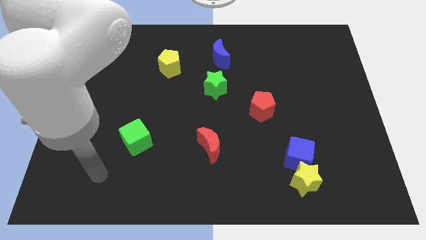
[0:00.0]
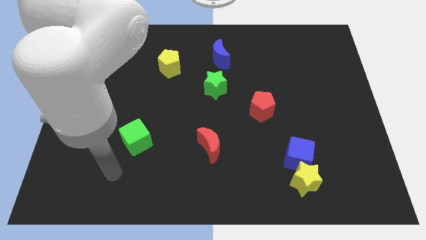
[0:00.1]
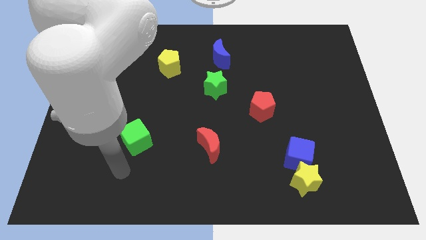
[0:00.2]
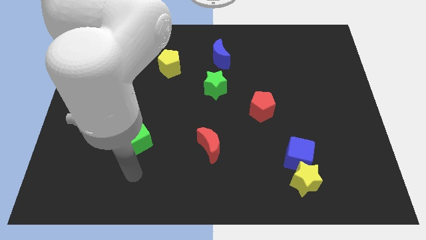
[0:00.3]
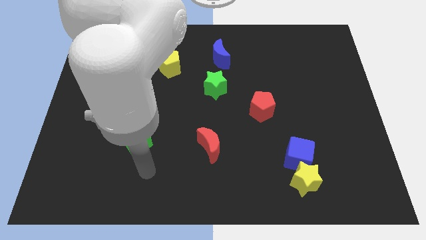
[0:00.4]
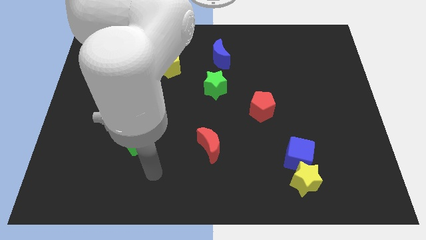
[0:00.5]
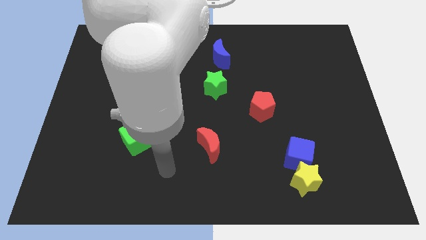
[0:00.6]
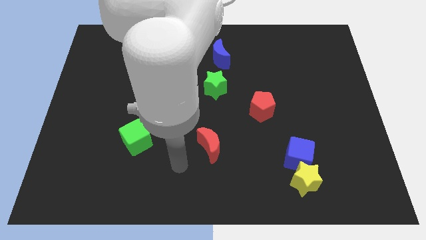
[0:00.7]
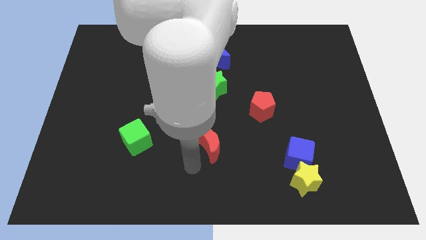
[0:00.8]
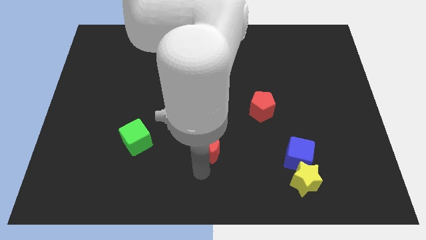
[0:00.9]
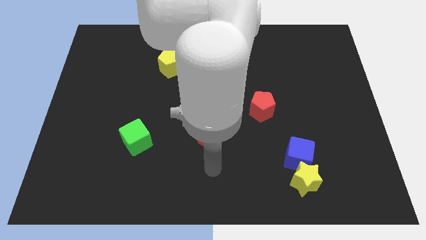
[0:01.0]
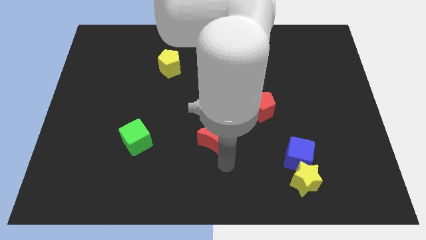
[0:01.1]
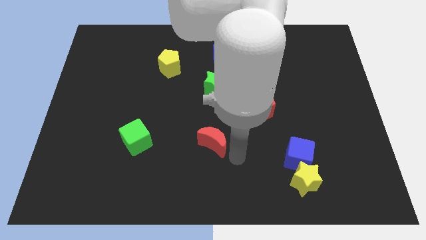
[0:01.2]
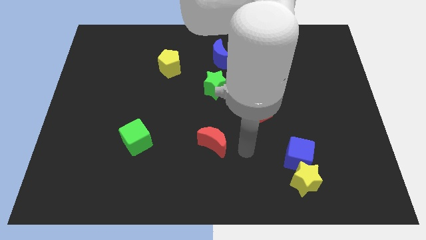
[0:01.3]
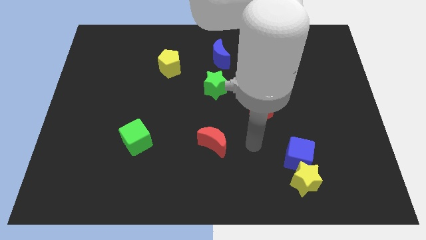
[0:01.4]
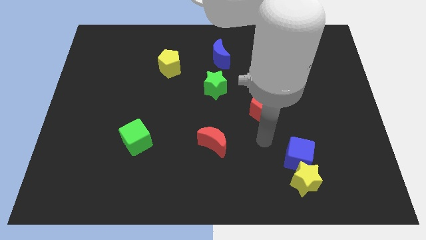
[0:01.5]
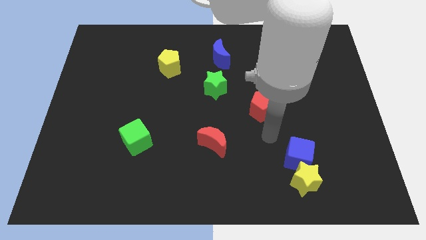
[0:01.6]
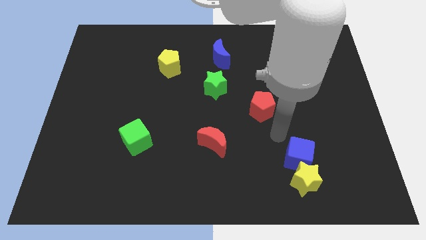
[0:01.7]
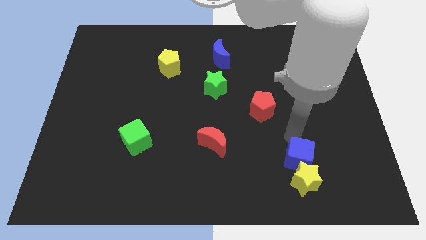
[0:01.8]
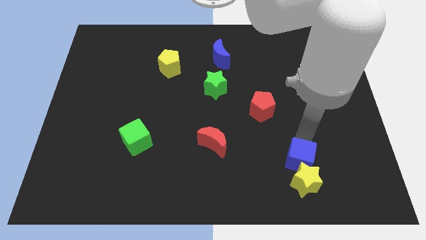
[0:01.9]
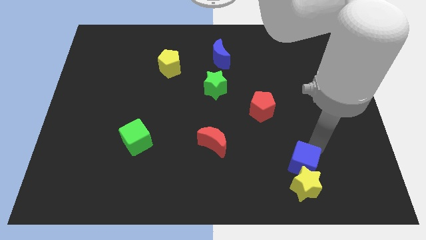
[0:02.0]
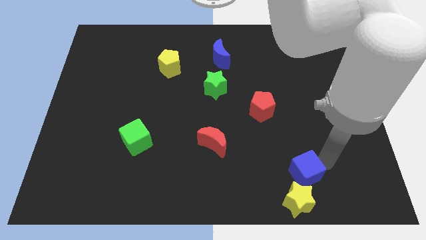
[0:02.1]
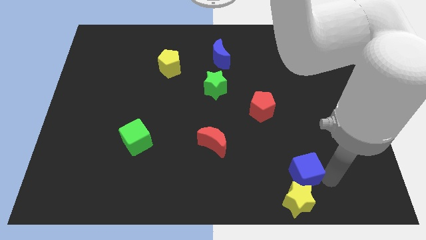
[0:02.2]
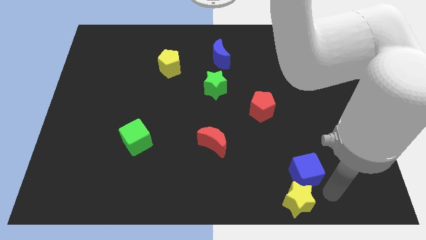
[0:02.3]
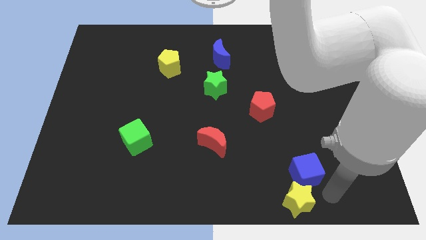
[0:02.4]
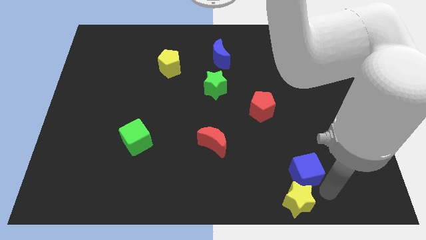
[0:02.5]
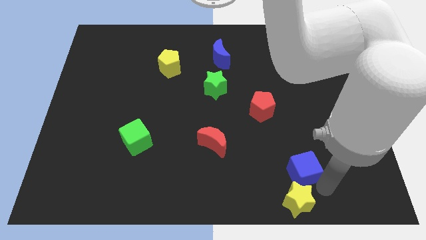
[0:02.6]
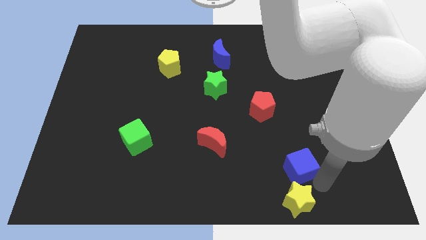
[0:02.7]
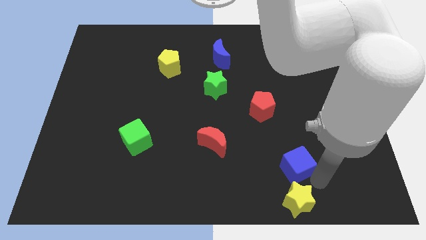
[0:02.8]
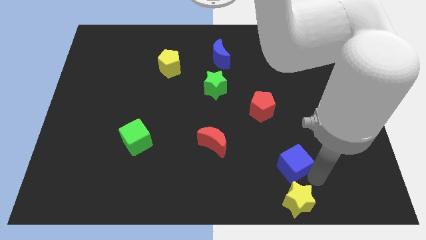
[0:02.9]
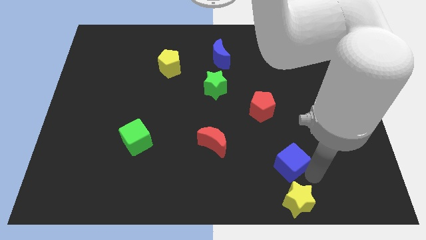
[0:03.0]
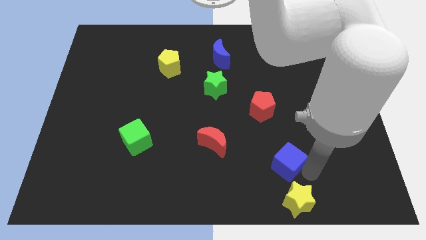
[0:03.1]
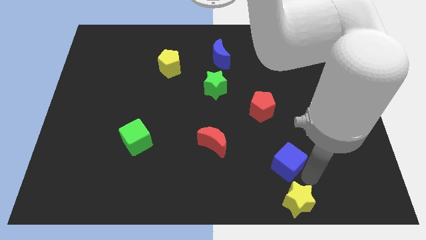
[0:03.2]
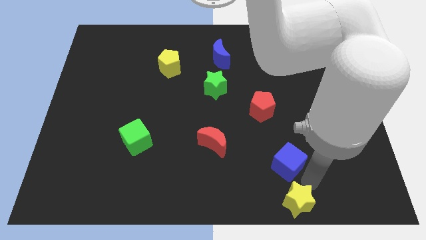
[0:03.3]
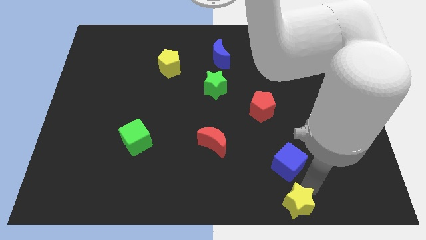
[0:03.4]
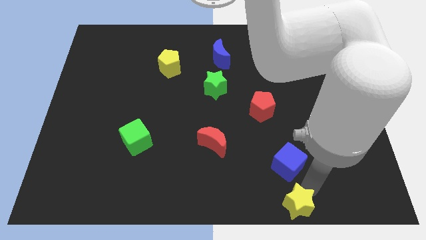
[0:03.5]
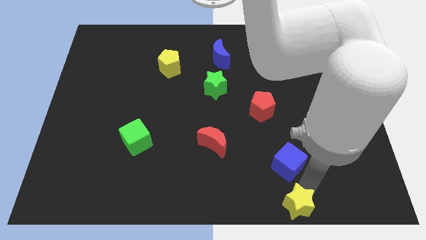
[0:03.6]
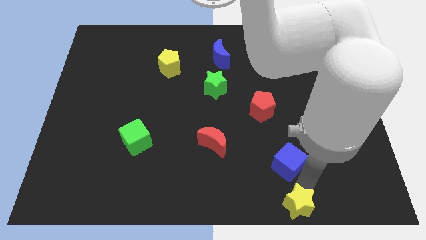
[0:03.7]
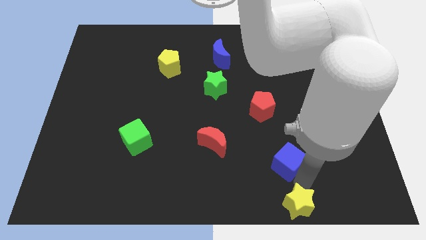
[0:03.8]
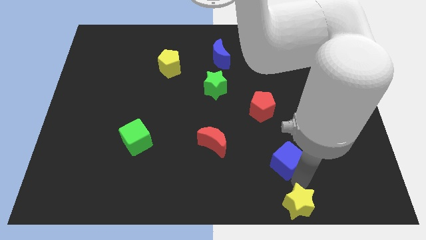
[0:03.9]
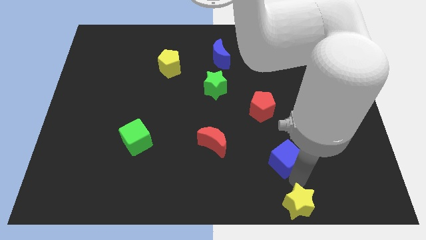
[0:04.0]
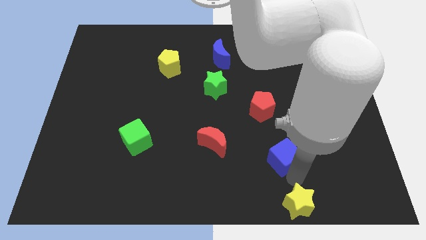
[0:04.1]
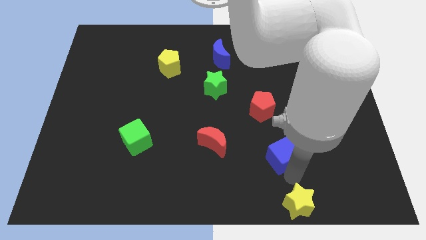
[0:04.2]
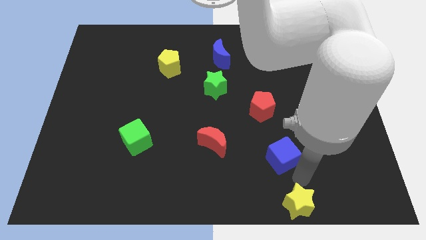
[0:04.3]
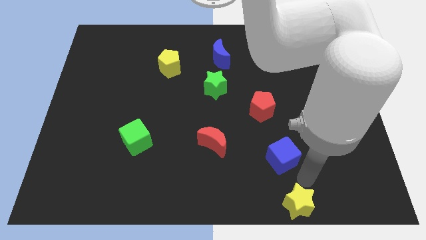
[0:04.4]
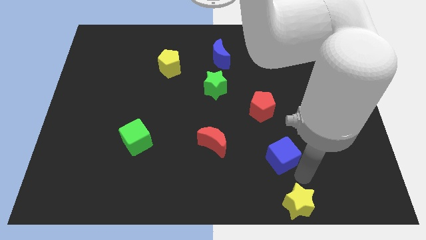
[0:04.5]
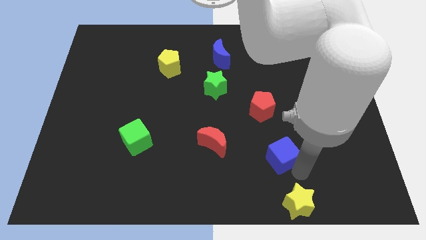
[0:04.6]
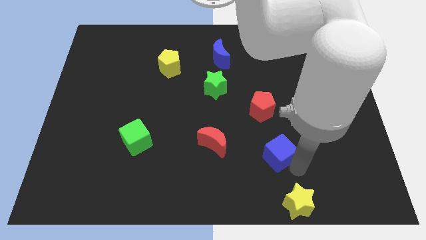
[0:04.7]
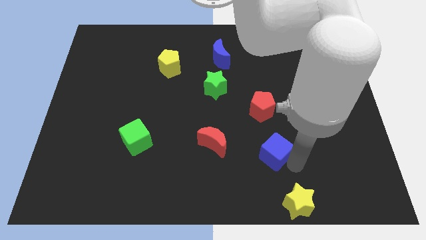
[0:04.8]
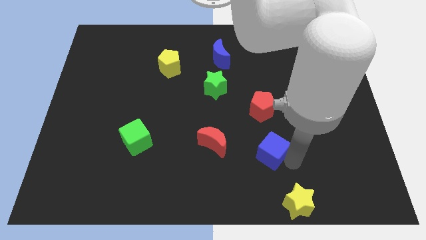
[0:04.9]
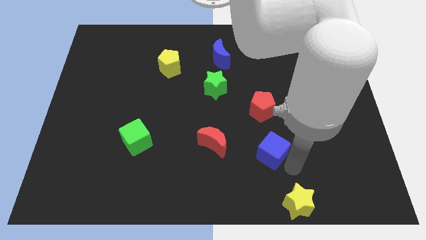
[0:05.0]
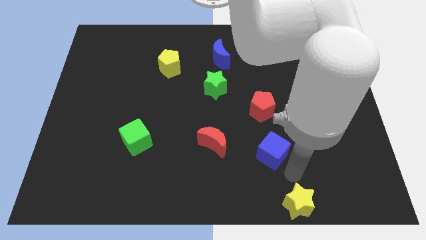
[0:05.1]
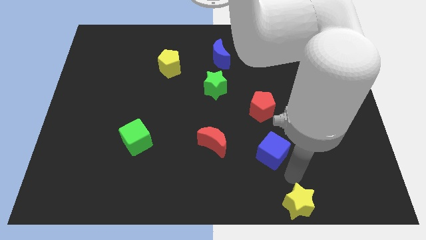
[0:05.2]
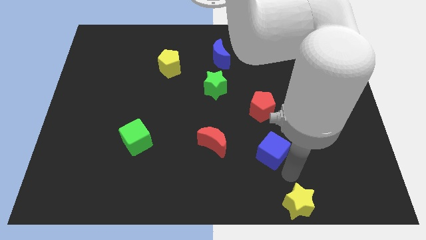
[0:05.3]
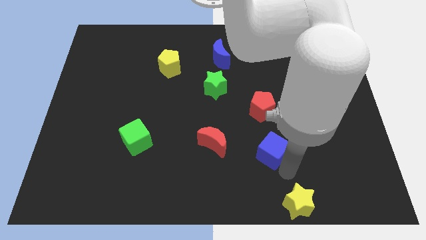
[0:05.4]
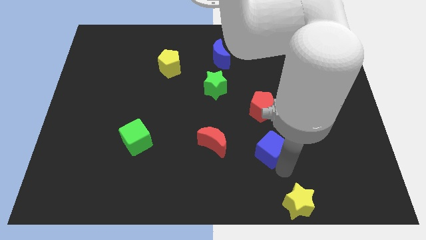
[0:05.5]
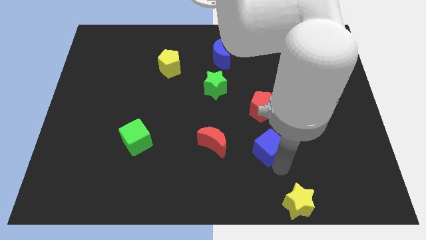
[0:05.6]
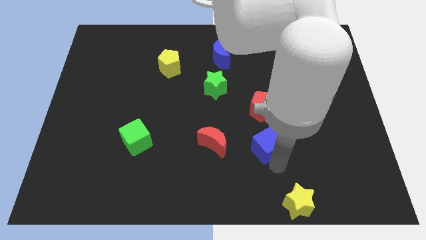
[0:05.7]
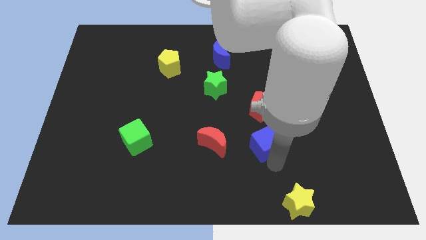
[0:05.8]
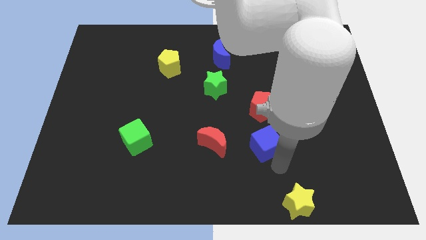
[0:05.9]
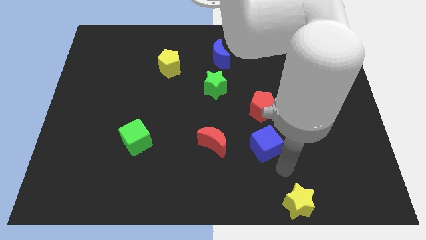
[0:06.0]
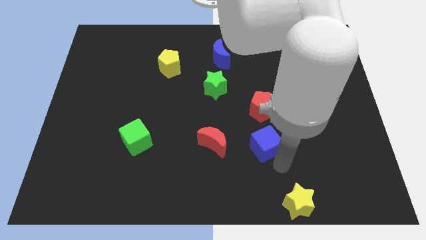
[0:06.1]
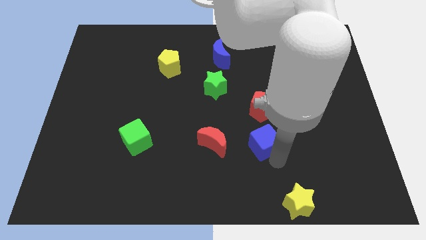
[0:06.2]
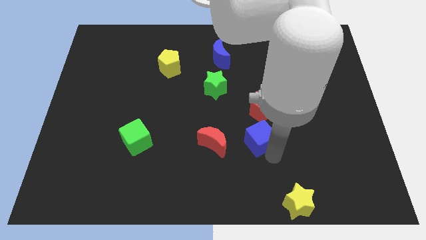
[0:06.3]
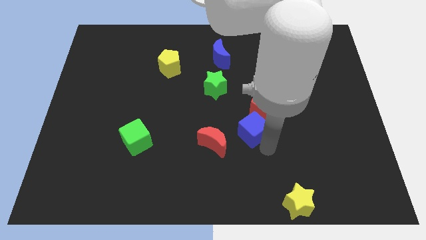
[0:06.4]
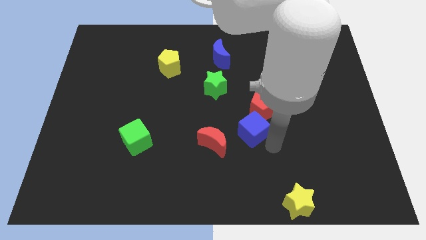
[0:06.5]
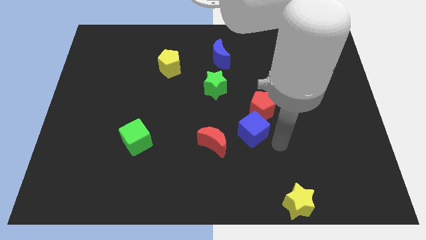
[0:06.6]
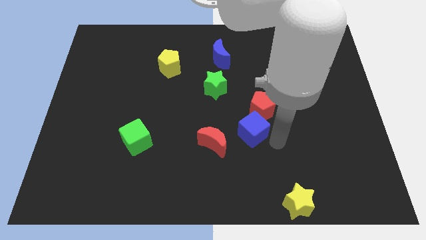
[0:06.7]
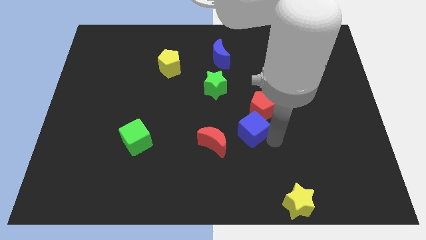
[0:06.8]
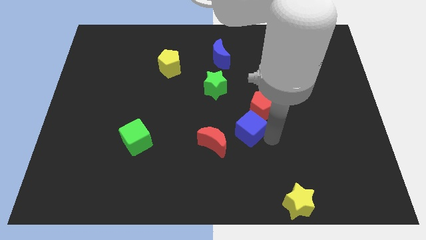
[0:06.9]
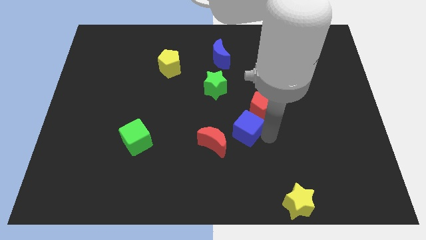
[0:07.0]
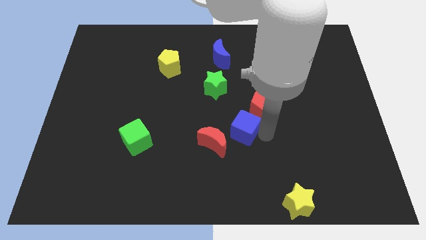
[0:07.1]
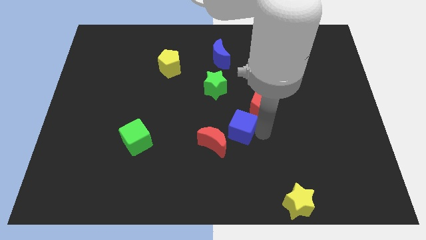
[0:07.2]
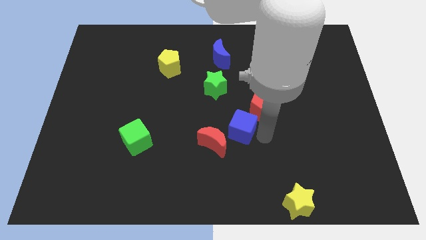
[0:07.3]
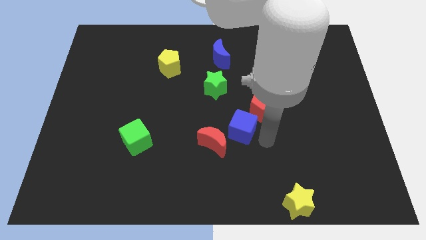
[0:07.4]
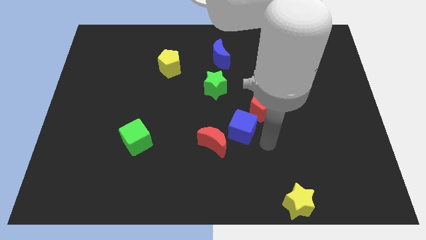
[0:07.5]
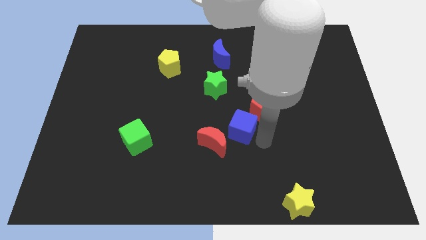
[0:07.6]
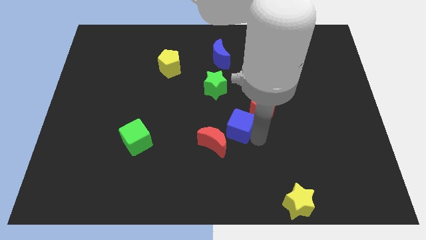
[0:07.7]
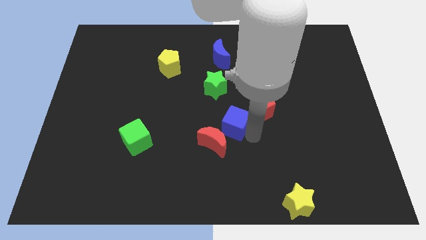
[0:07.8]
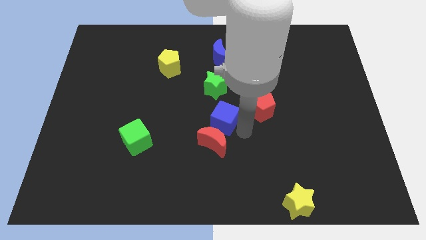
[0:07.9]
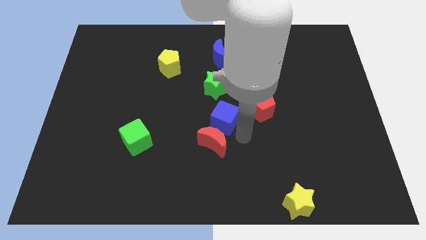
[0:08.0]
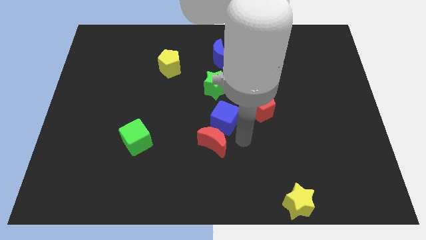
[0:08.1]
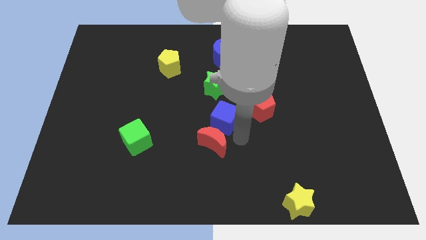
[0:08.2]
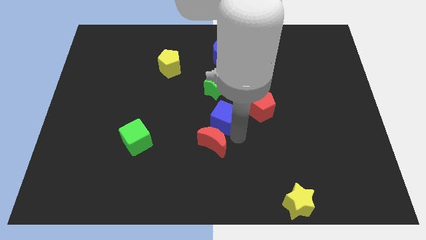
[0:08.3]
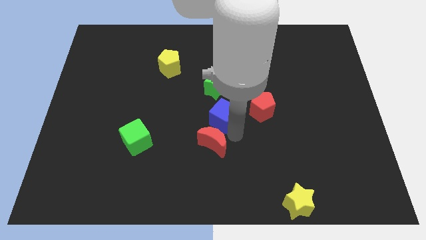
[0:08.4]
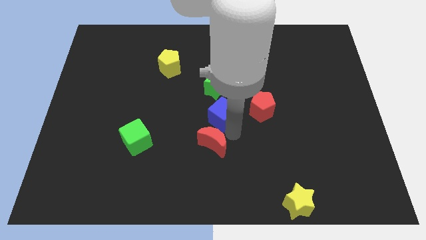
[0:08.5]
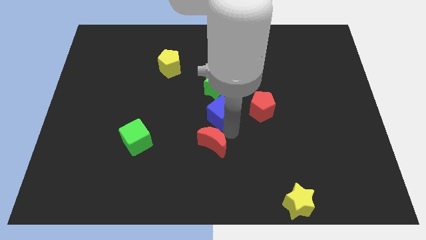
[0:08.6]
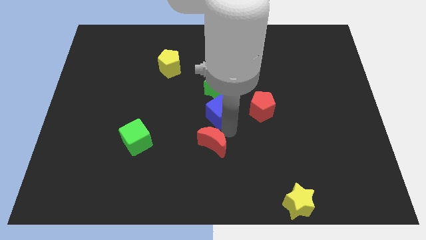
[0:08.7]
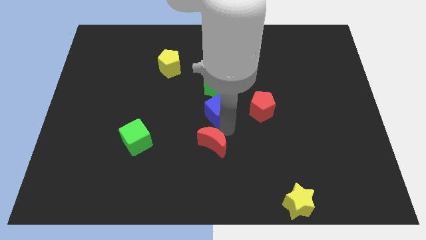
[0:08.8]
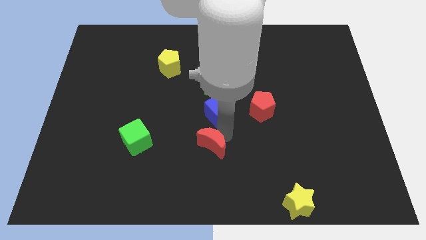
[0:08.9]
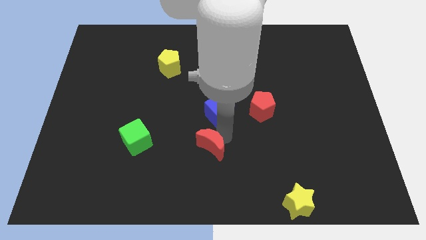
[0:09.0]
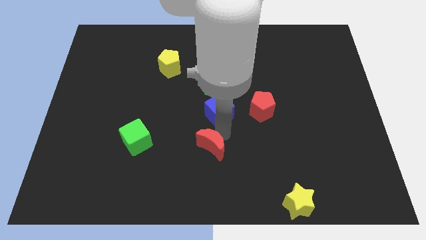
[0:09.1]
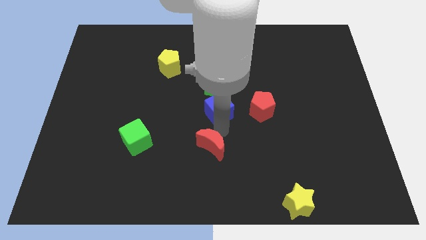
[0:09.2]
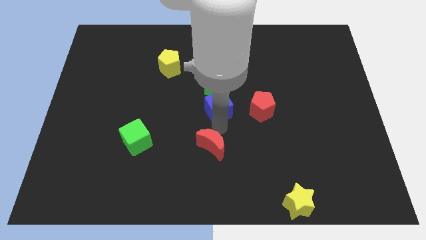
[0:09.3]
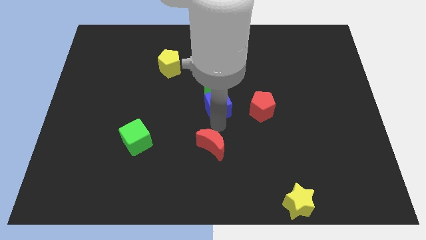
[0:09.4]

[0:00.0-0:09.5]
slide the blue cube to the green star
